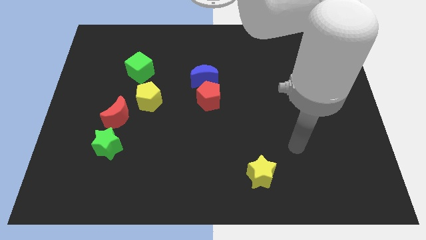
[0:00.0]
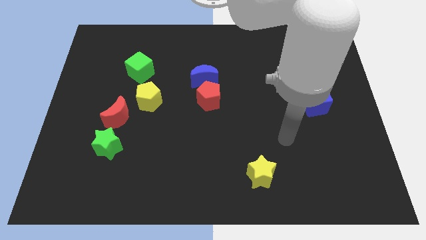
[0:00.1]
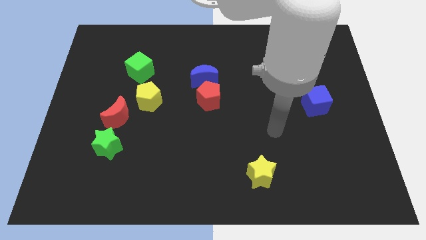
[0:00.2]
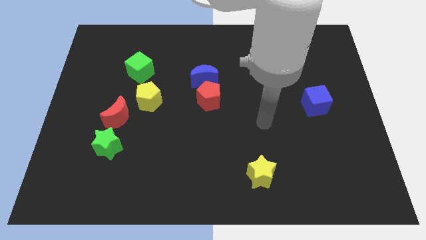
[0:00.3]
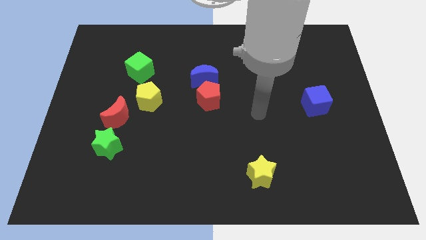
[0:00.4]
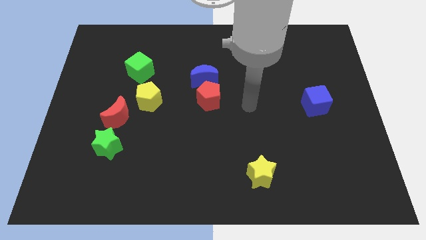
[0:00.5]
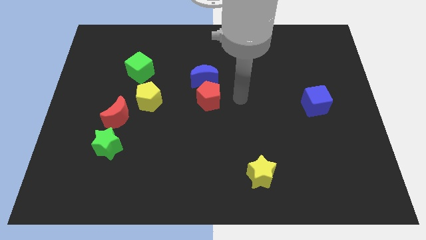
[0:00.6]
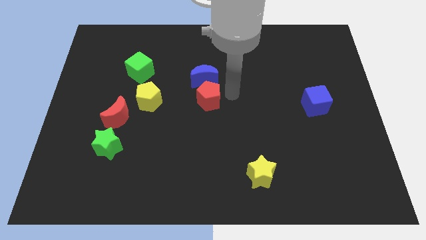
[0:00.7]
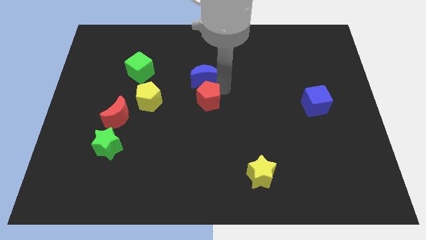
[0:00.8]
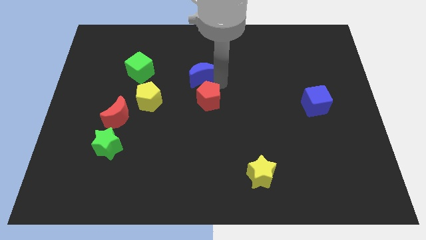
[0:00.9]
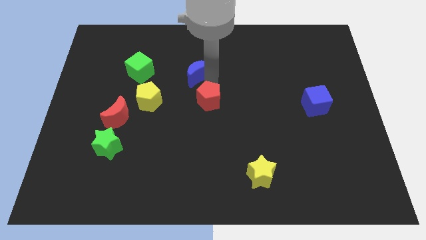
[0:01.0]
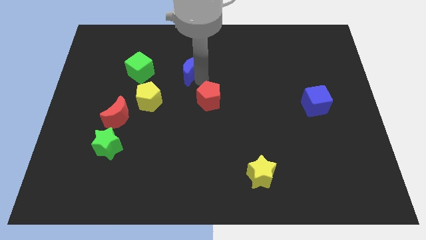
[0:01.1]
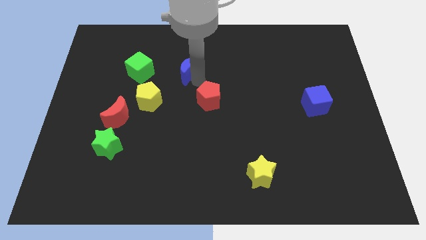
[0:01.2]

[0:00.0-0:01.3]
pull the red pentagon apart from the blue moon

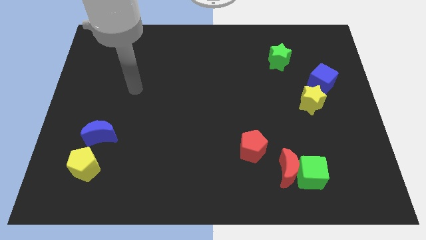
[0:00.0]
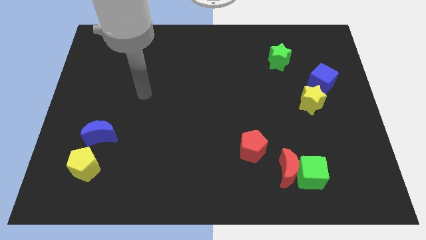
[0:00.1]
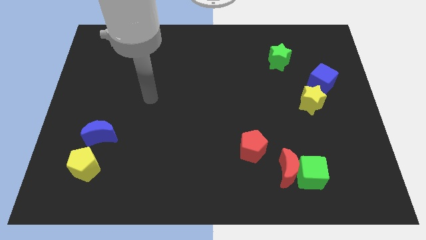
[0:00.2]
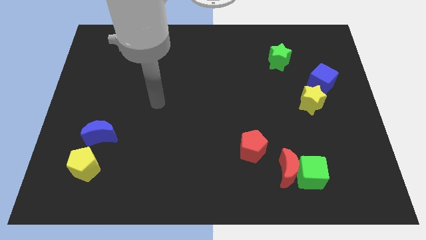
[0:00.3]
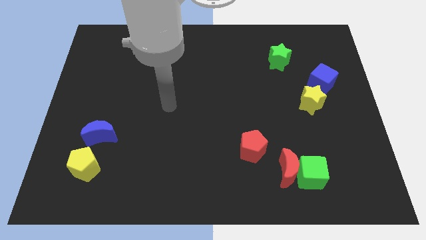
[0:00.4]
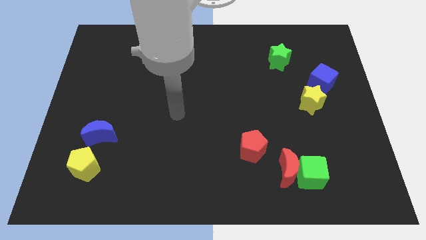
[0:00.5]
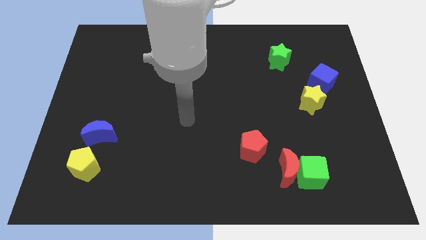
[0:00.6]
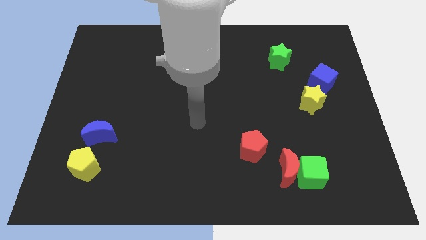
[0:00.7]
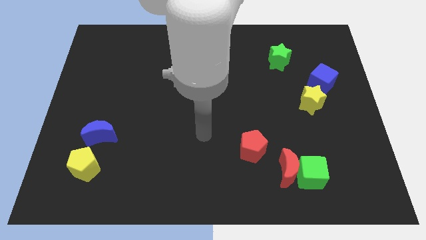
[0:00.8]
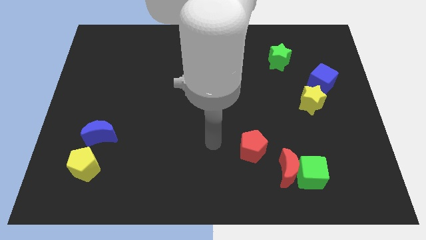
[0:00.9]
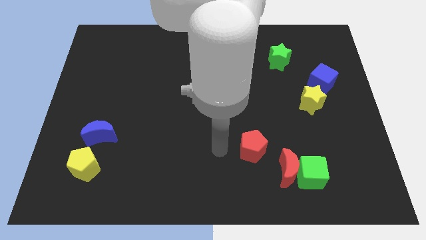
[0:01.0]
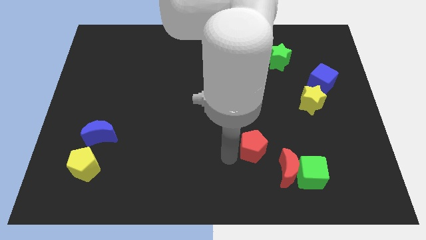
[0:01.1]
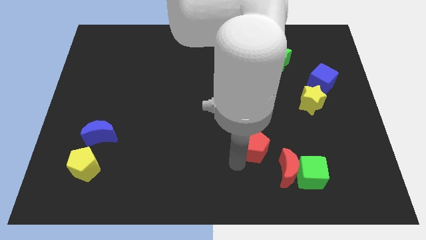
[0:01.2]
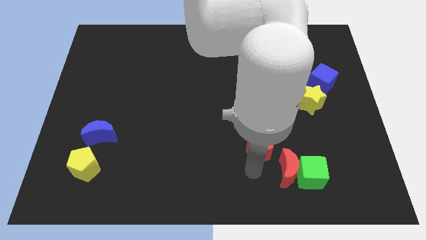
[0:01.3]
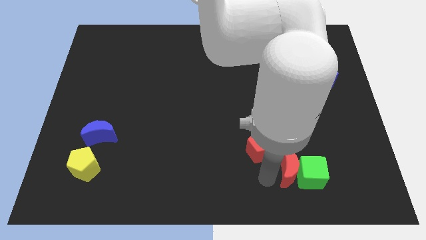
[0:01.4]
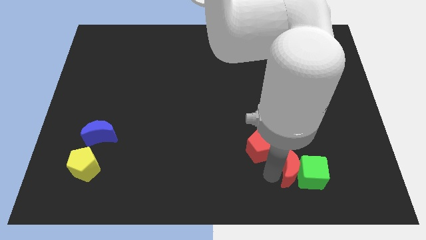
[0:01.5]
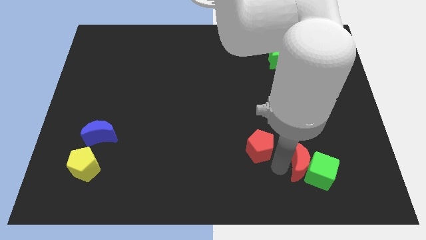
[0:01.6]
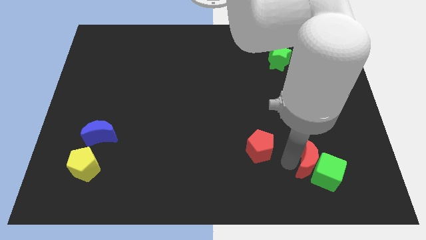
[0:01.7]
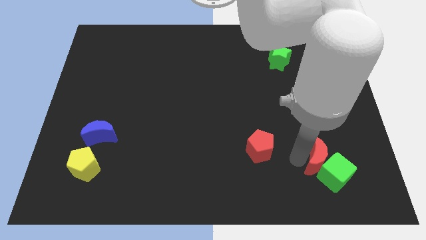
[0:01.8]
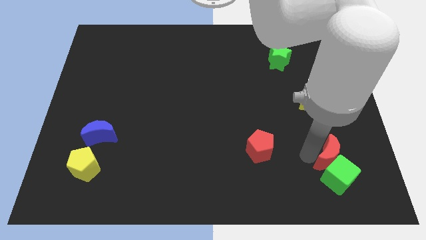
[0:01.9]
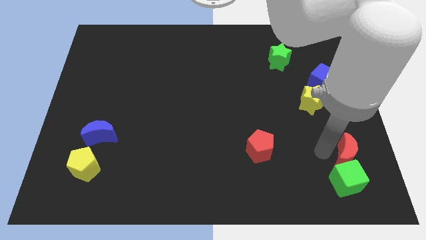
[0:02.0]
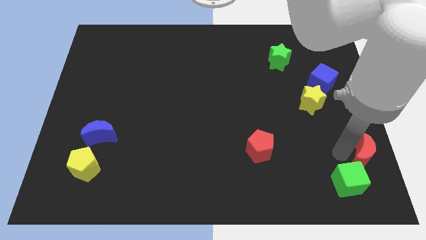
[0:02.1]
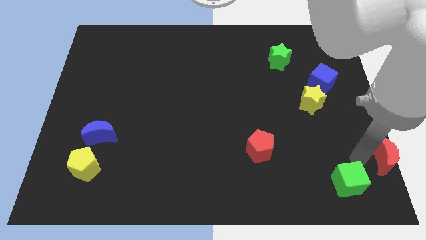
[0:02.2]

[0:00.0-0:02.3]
separate the green cube from the red moon

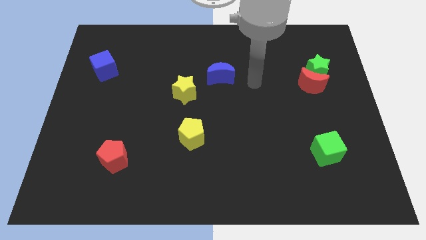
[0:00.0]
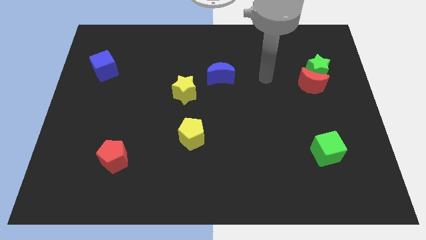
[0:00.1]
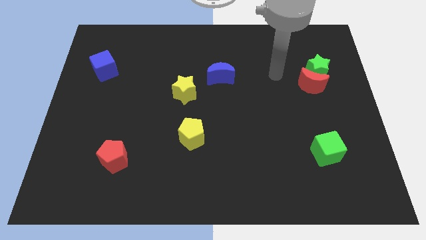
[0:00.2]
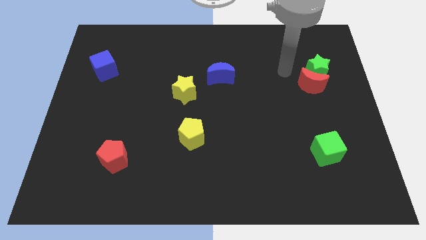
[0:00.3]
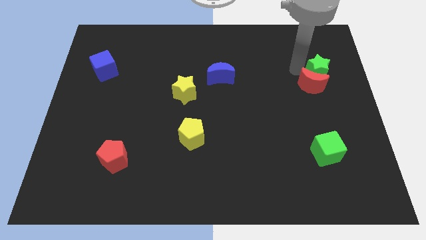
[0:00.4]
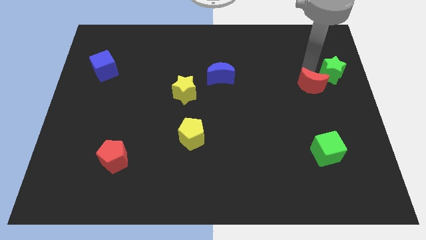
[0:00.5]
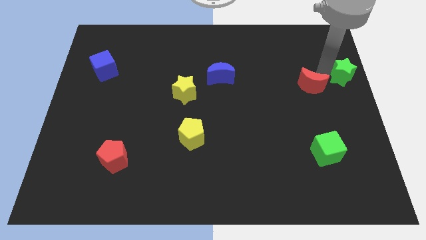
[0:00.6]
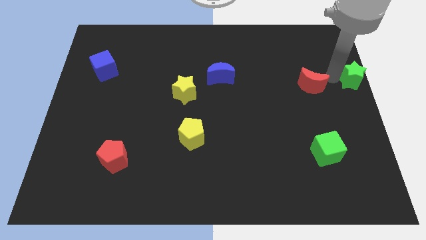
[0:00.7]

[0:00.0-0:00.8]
move the red moon away from the green star

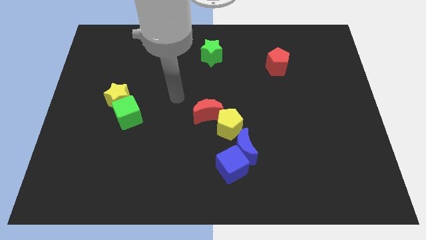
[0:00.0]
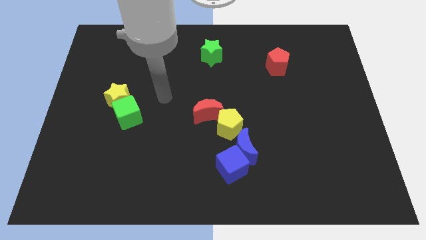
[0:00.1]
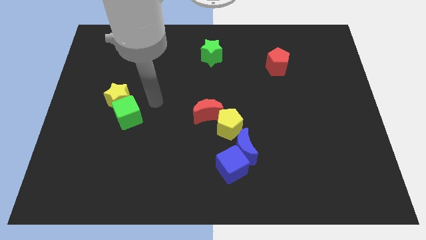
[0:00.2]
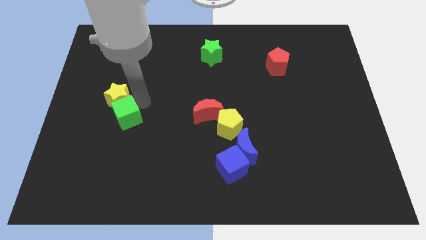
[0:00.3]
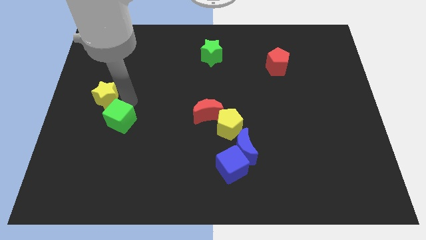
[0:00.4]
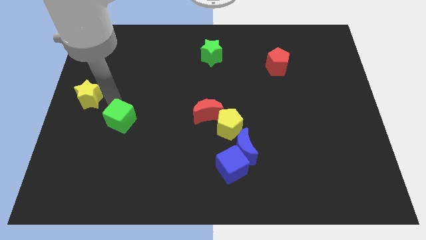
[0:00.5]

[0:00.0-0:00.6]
pull the green cube apart from the yellow star

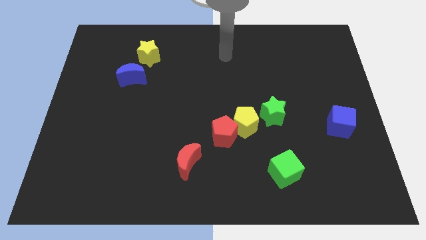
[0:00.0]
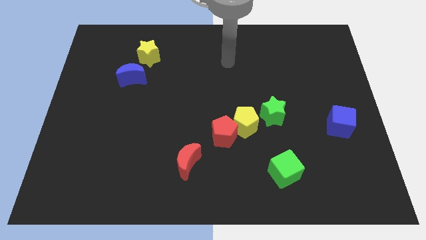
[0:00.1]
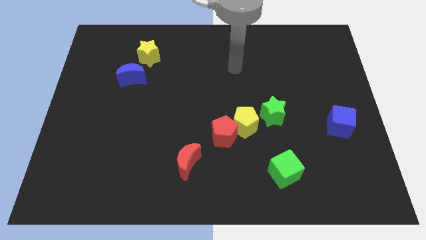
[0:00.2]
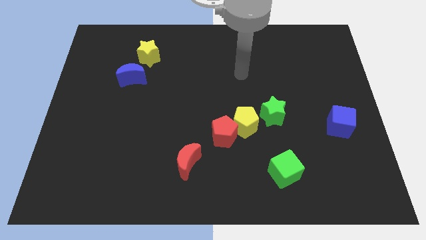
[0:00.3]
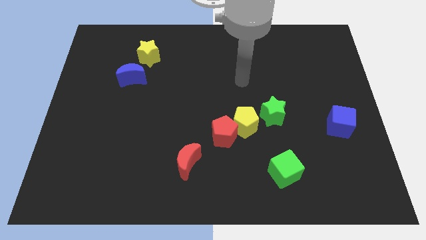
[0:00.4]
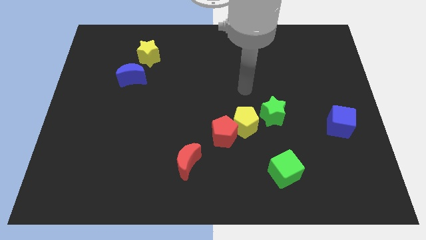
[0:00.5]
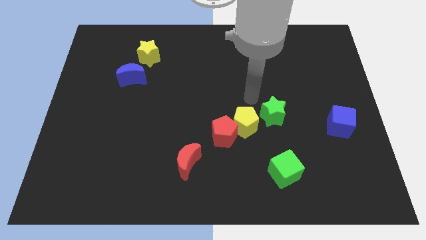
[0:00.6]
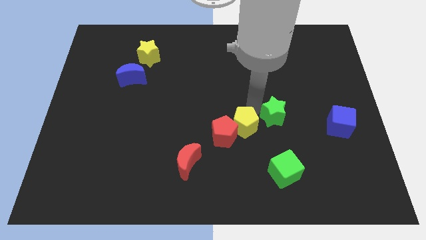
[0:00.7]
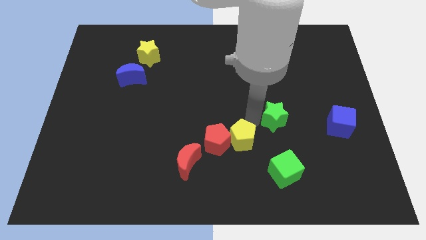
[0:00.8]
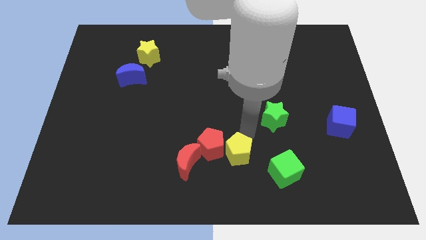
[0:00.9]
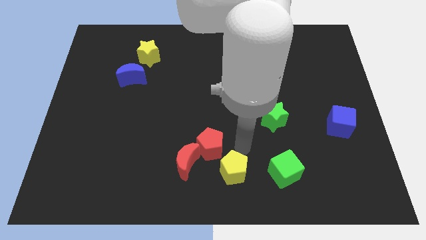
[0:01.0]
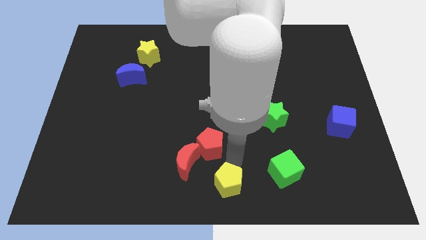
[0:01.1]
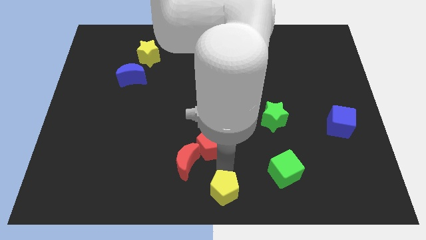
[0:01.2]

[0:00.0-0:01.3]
pull the red pentagon apart from the yellow pentagon

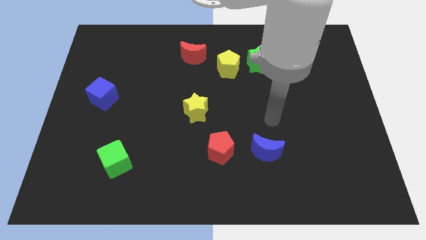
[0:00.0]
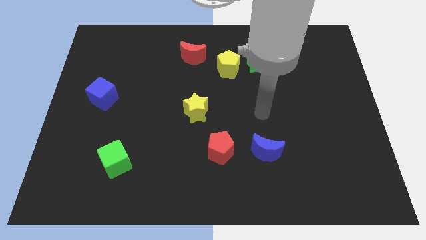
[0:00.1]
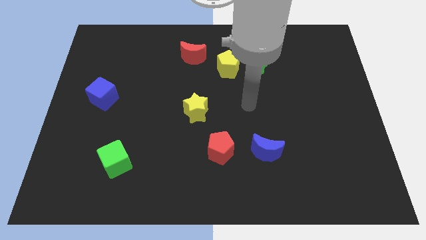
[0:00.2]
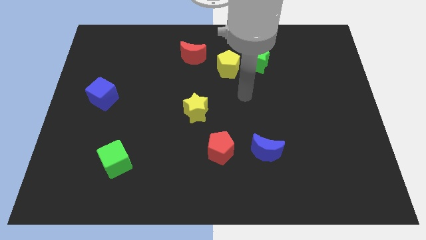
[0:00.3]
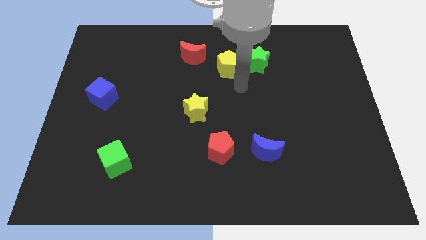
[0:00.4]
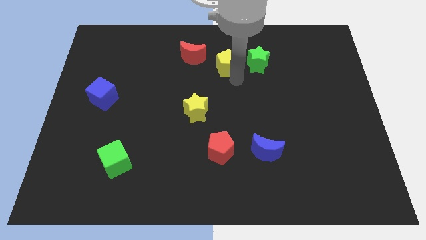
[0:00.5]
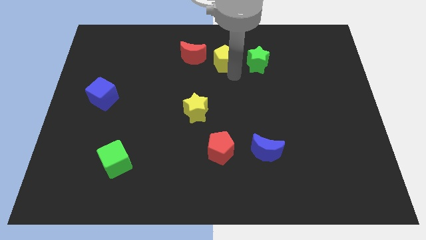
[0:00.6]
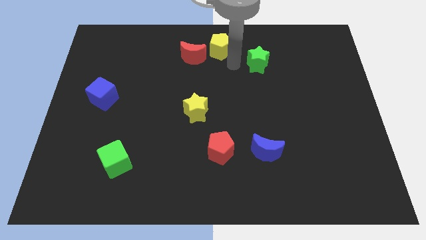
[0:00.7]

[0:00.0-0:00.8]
pull the green star apart from the yellow pentagon

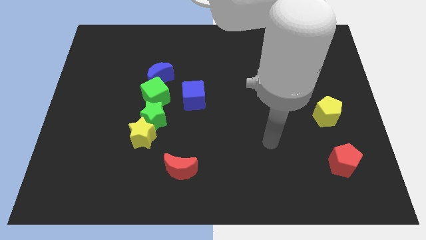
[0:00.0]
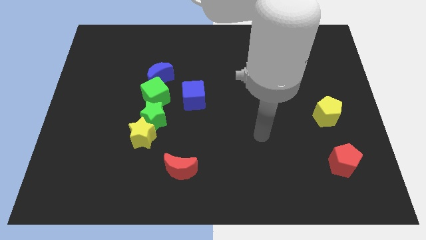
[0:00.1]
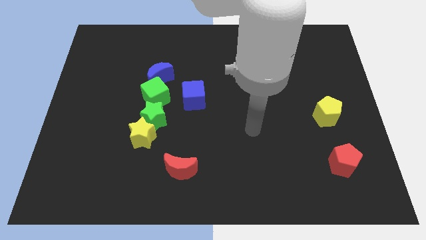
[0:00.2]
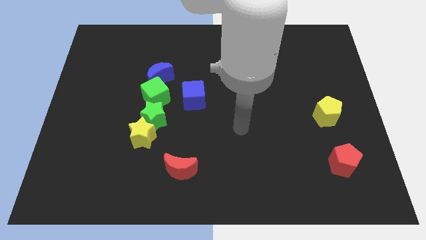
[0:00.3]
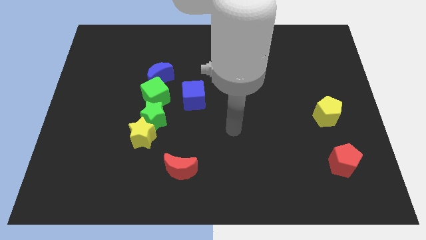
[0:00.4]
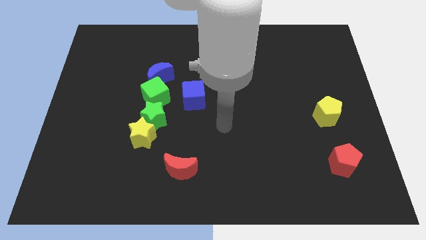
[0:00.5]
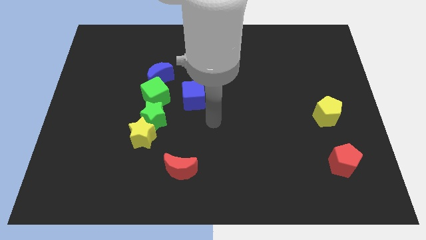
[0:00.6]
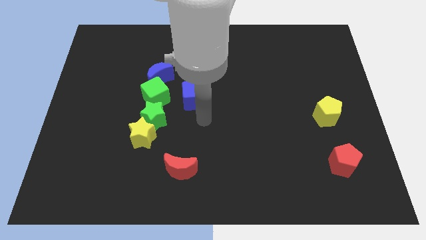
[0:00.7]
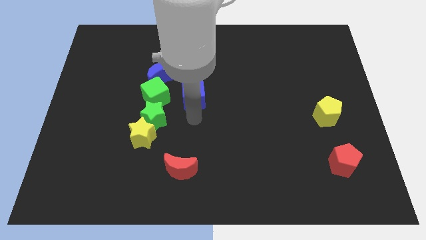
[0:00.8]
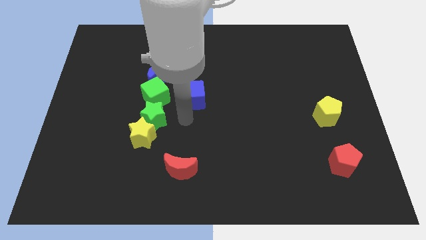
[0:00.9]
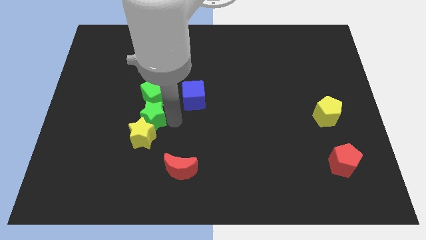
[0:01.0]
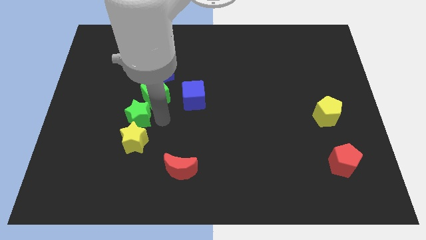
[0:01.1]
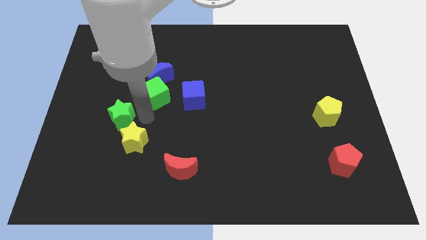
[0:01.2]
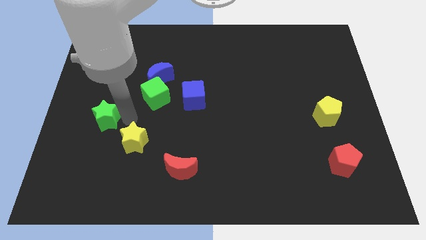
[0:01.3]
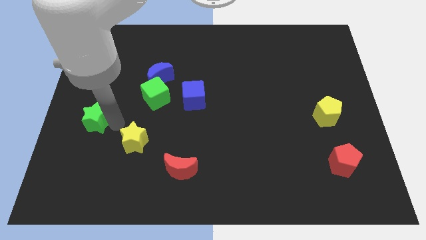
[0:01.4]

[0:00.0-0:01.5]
pull the yellow star apart from the green star

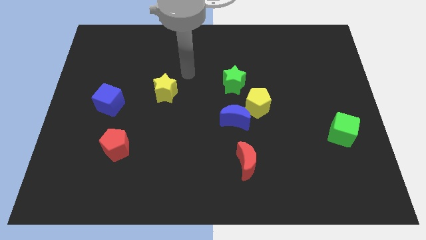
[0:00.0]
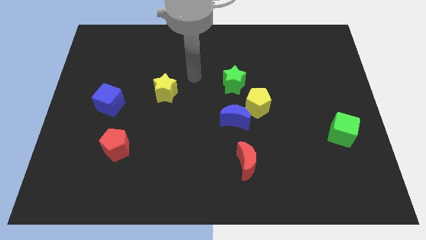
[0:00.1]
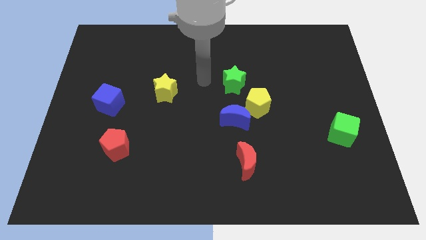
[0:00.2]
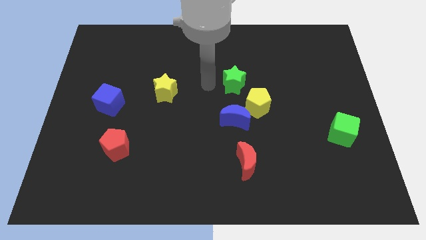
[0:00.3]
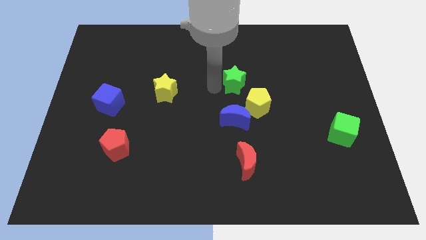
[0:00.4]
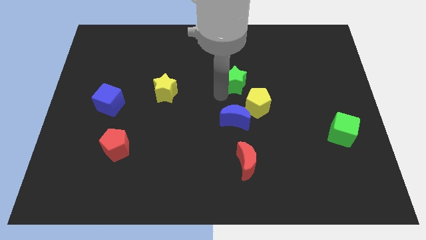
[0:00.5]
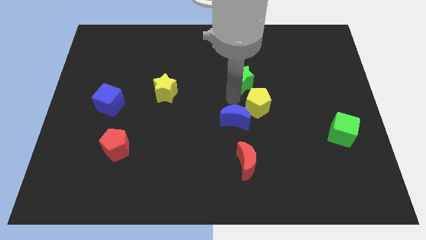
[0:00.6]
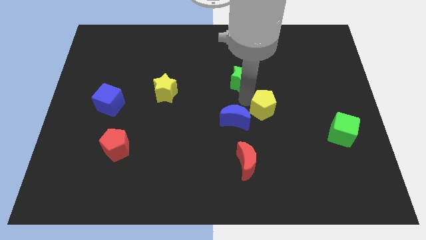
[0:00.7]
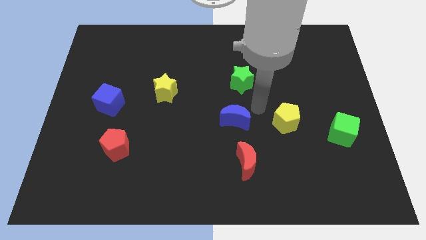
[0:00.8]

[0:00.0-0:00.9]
pull the blue moon apart from the yellow pentagon
